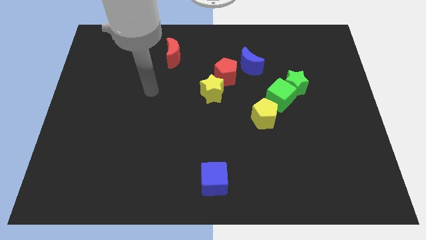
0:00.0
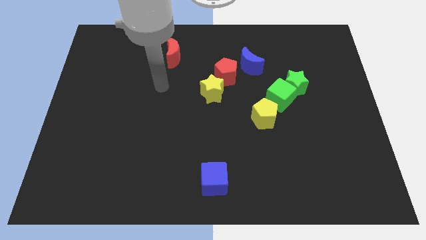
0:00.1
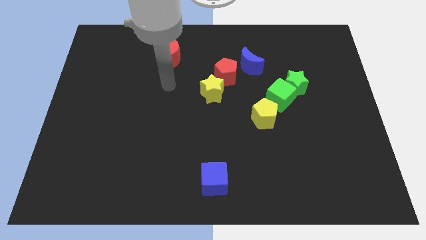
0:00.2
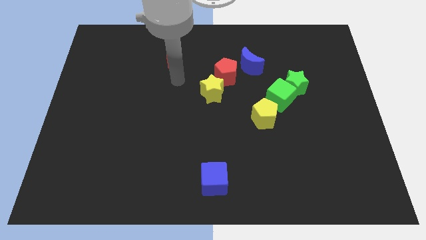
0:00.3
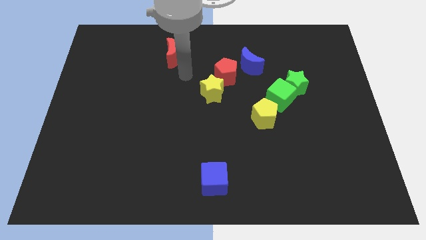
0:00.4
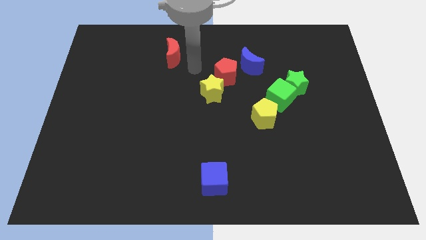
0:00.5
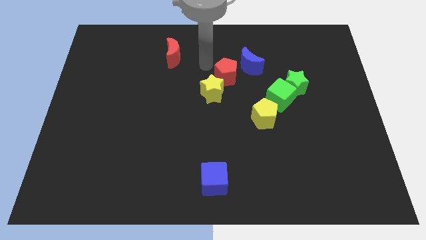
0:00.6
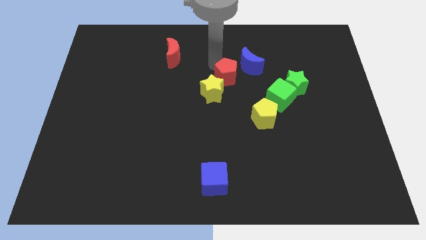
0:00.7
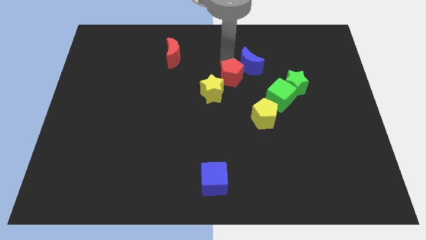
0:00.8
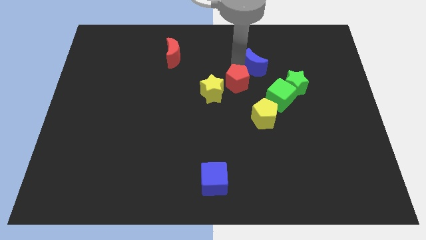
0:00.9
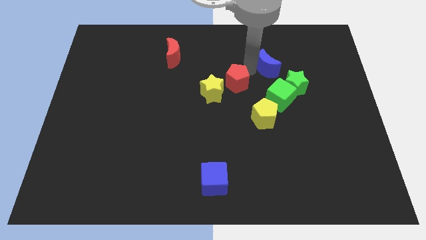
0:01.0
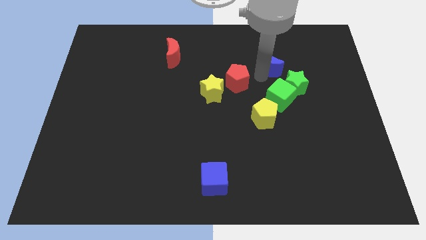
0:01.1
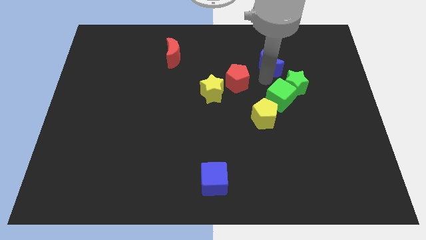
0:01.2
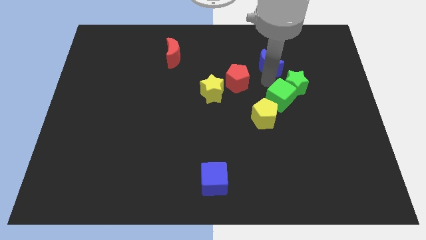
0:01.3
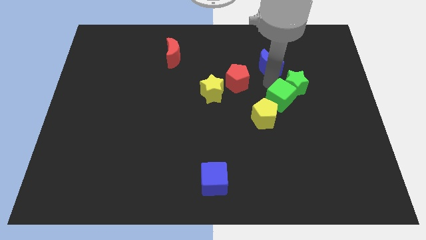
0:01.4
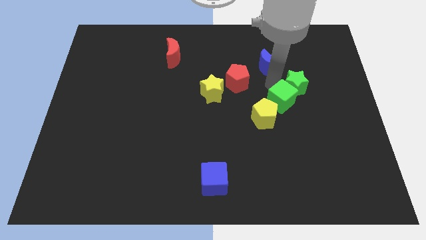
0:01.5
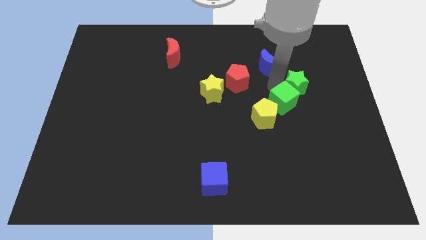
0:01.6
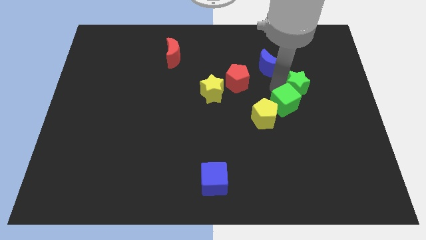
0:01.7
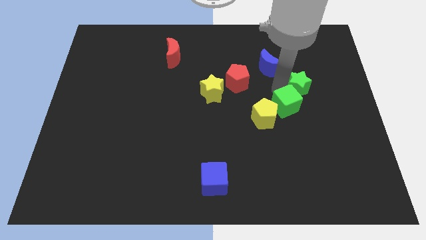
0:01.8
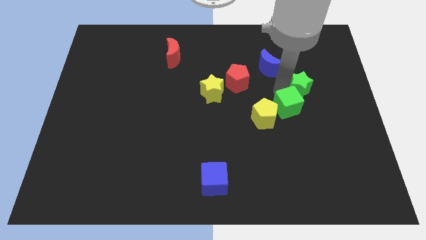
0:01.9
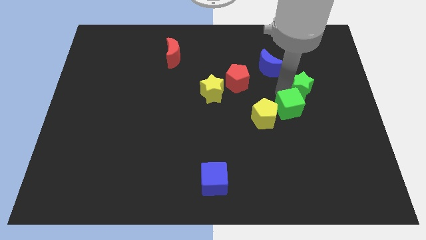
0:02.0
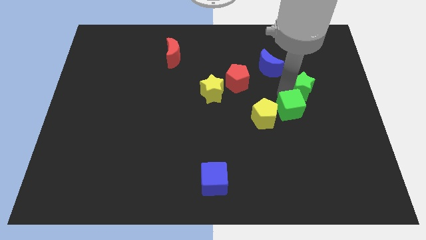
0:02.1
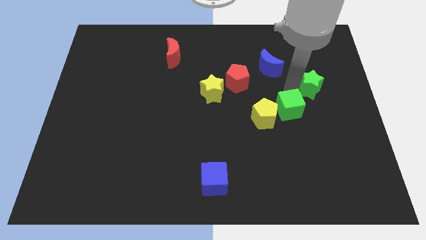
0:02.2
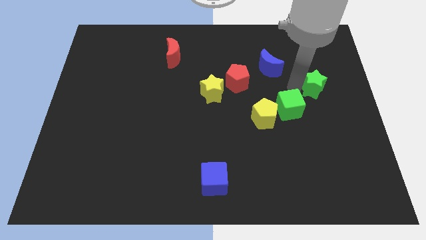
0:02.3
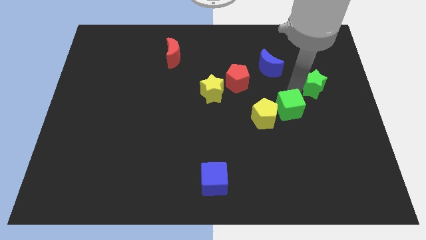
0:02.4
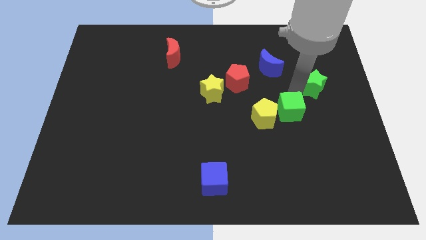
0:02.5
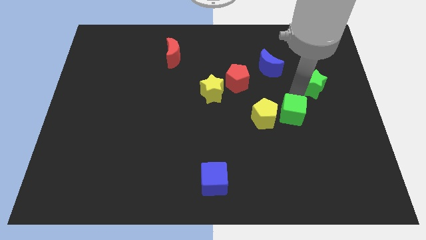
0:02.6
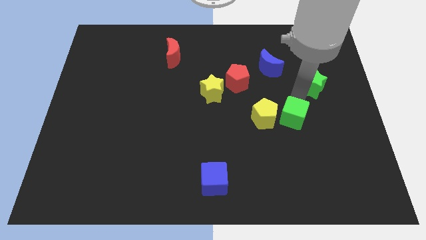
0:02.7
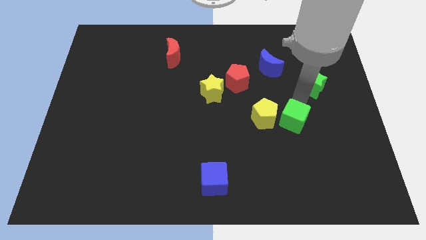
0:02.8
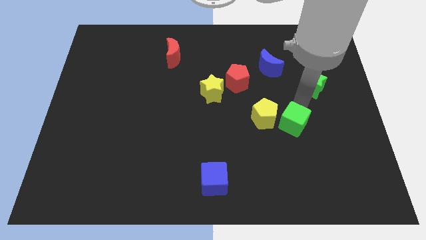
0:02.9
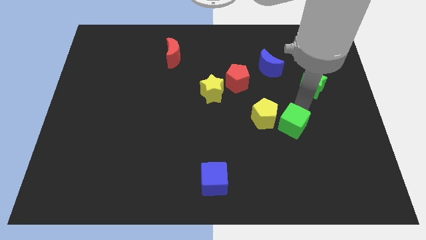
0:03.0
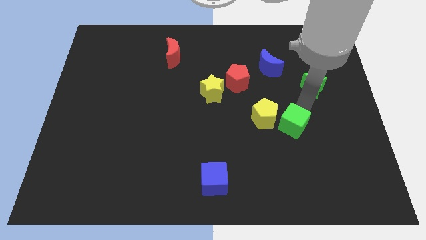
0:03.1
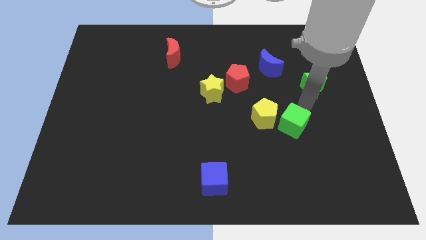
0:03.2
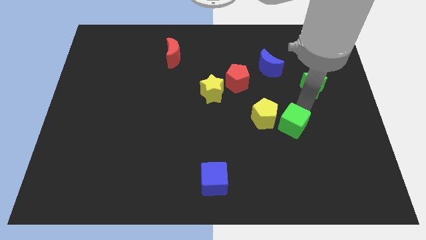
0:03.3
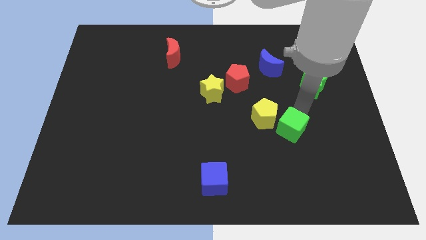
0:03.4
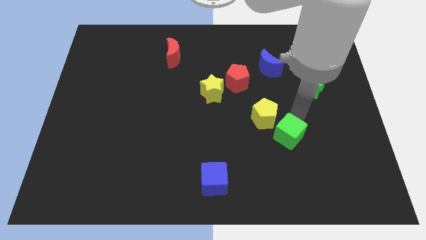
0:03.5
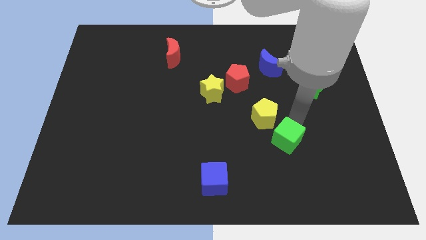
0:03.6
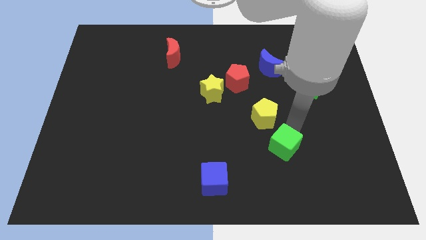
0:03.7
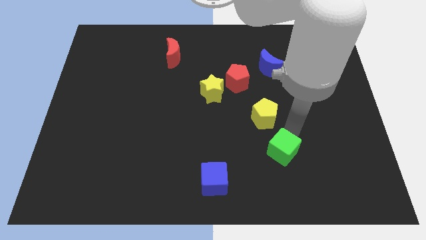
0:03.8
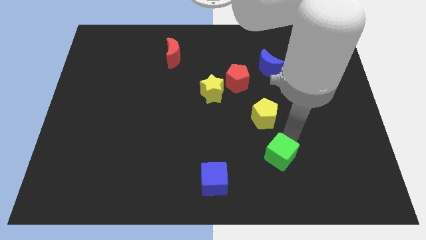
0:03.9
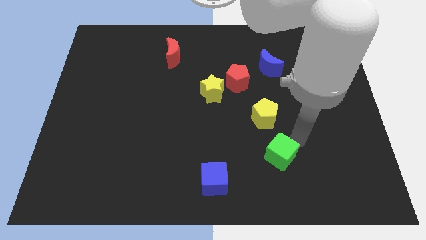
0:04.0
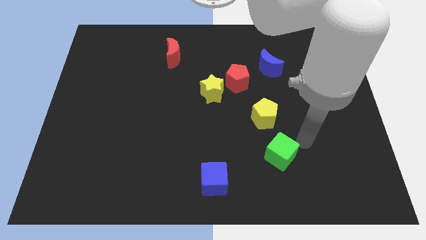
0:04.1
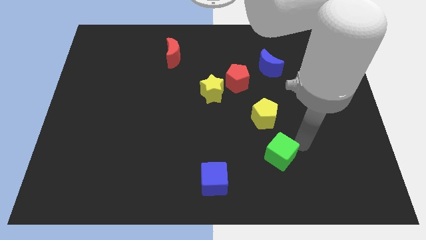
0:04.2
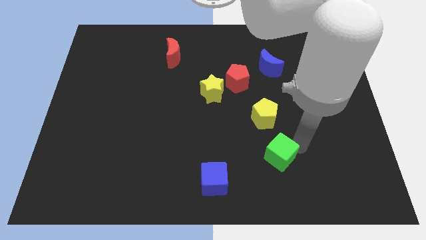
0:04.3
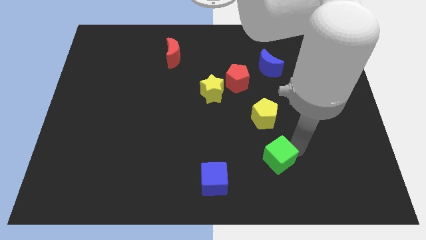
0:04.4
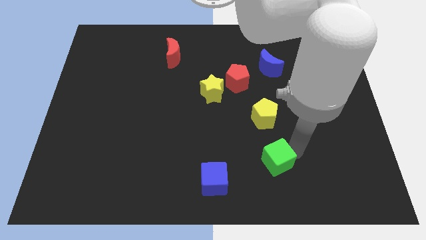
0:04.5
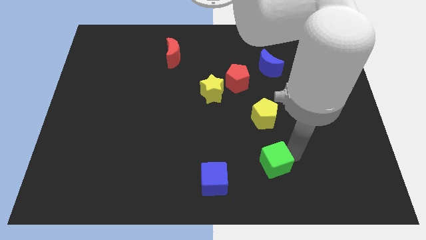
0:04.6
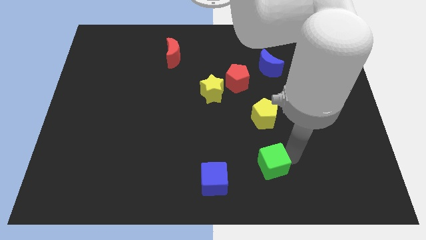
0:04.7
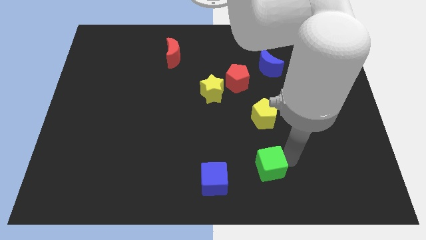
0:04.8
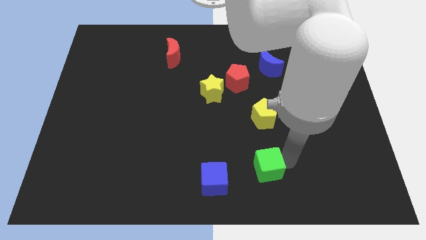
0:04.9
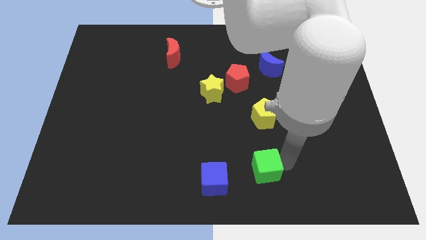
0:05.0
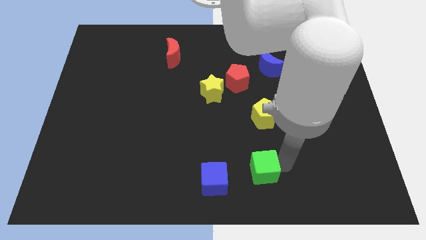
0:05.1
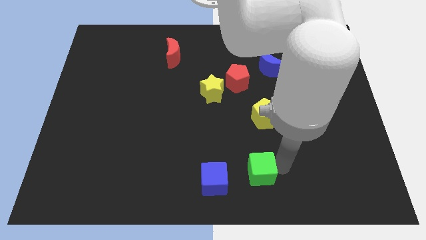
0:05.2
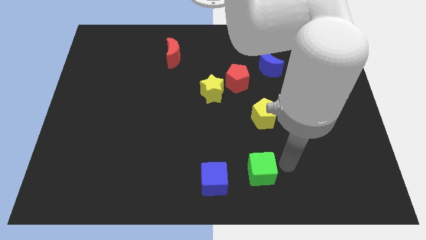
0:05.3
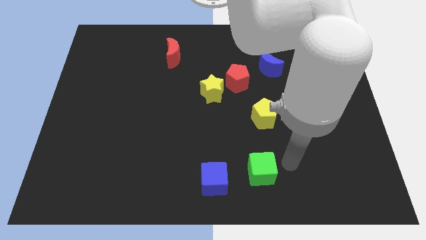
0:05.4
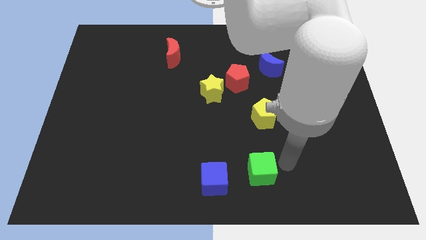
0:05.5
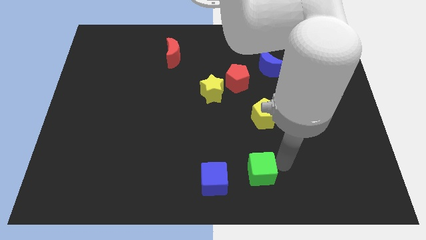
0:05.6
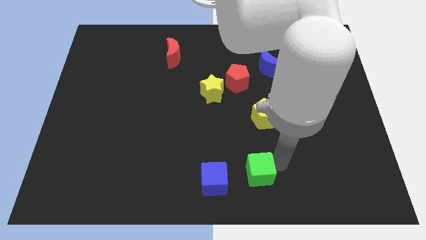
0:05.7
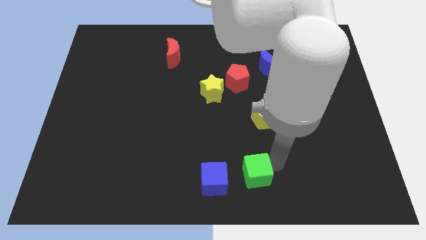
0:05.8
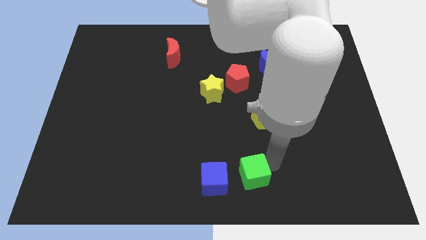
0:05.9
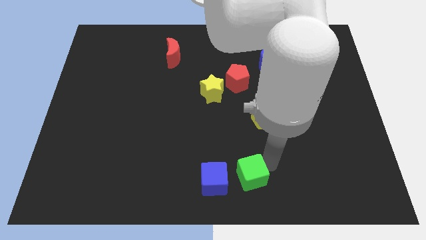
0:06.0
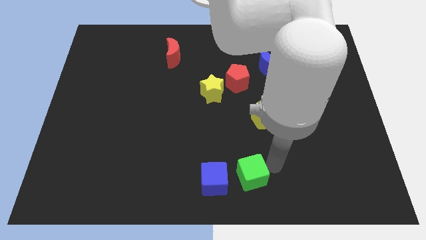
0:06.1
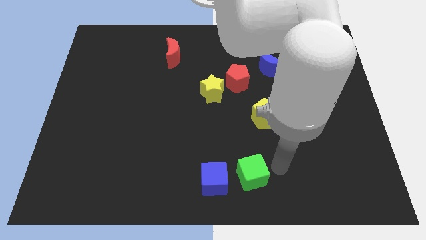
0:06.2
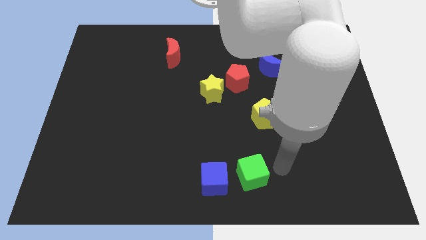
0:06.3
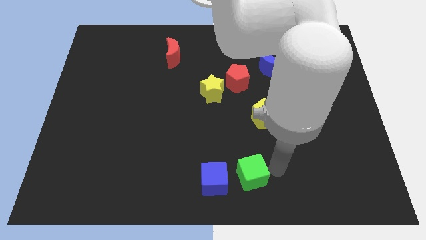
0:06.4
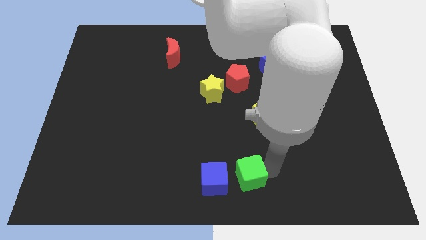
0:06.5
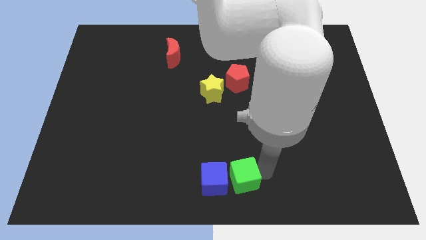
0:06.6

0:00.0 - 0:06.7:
move the green cube to the blue cube

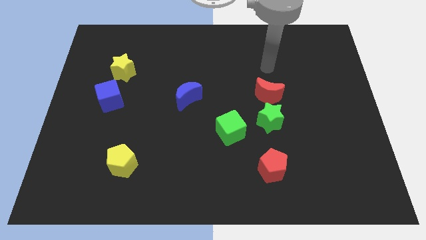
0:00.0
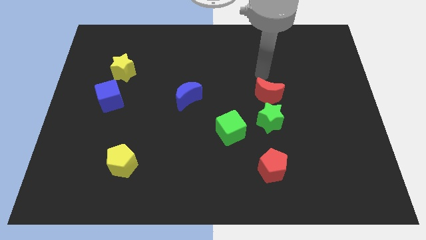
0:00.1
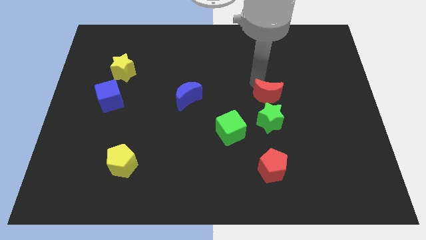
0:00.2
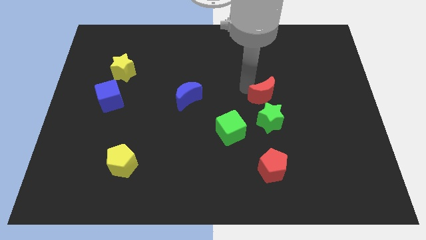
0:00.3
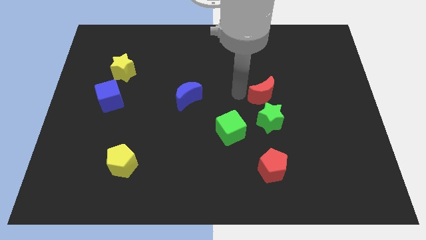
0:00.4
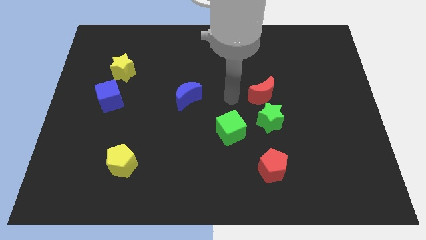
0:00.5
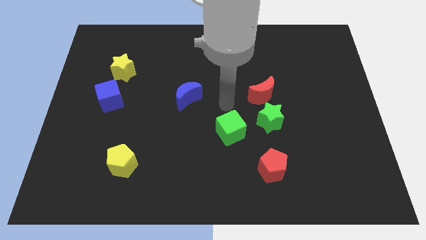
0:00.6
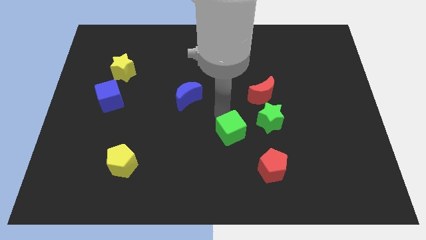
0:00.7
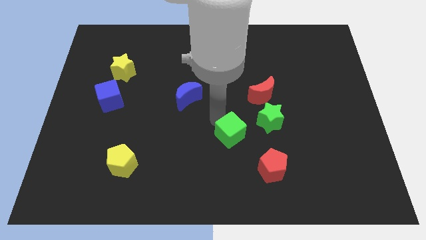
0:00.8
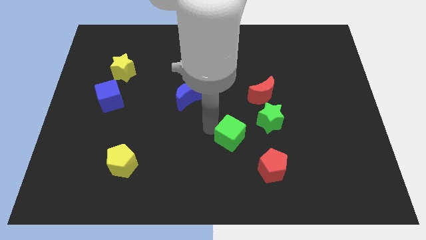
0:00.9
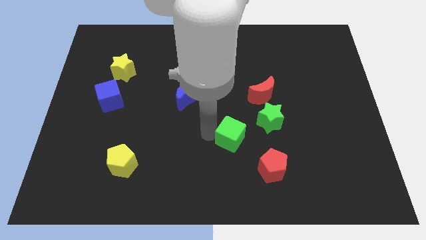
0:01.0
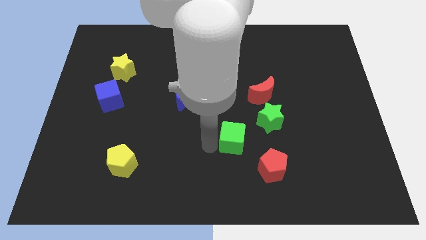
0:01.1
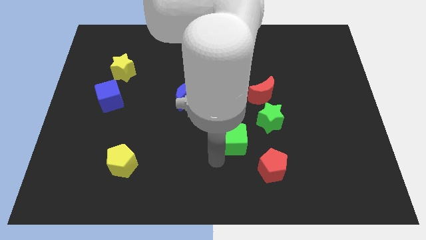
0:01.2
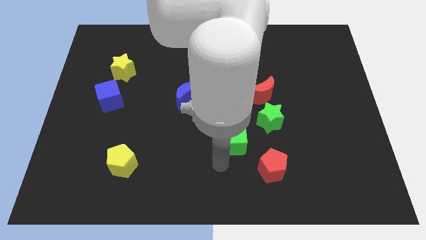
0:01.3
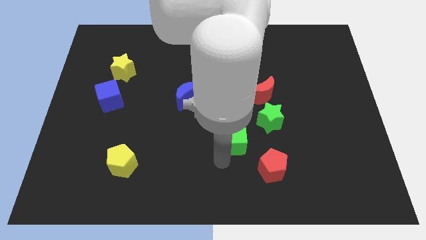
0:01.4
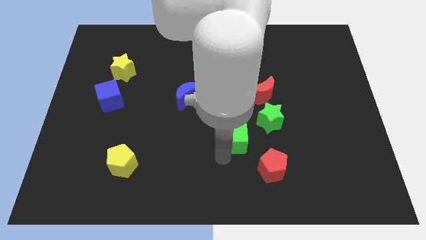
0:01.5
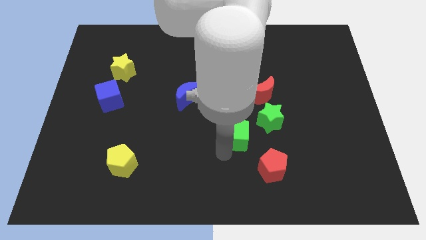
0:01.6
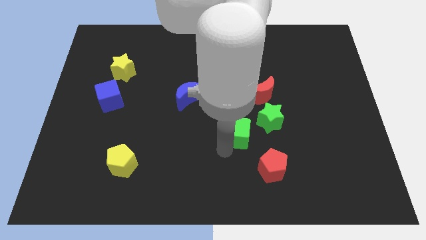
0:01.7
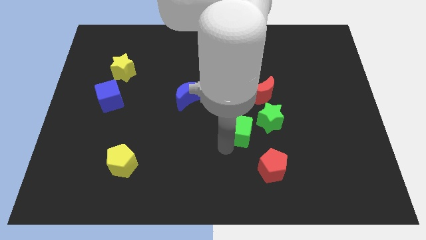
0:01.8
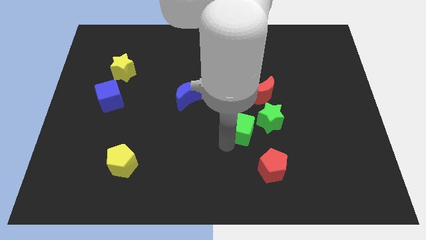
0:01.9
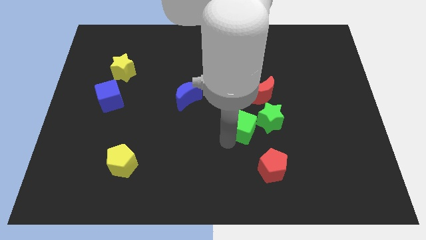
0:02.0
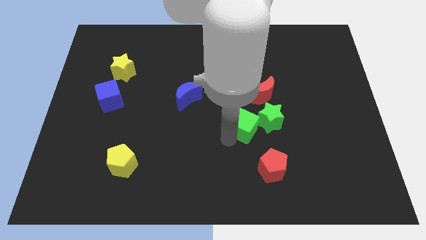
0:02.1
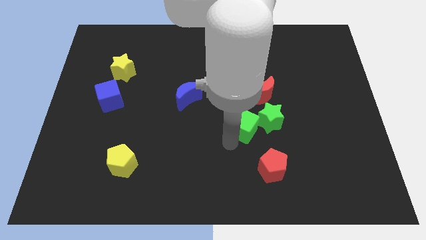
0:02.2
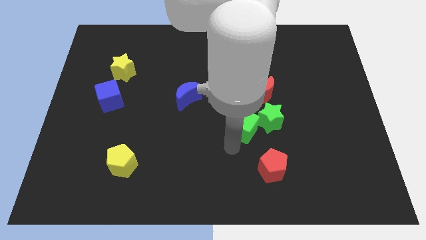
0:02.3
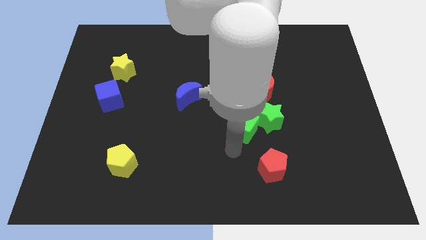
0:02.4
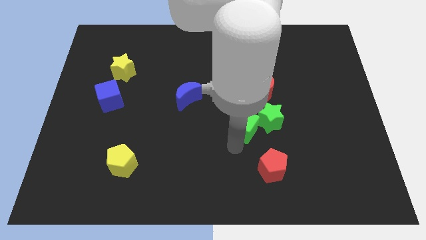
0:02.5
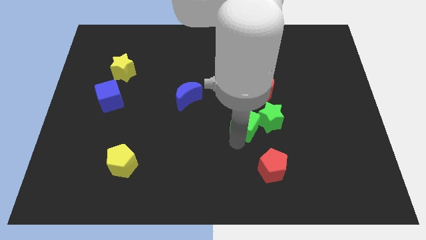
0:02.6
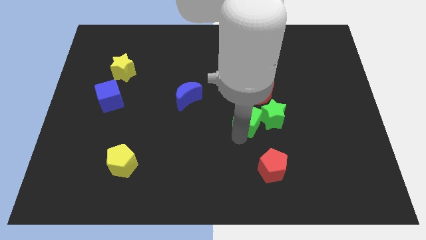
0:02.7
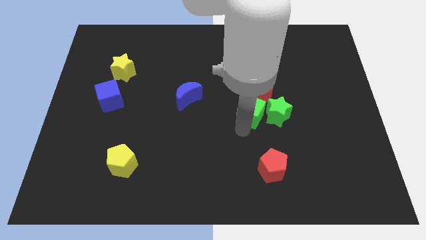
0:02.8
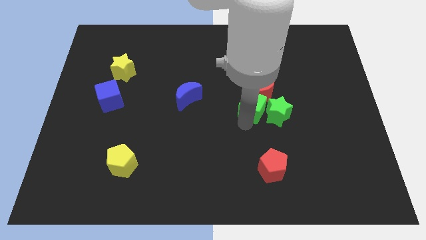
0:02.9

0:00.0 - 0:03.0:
move the green cube next to the red moon
